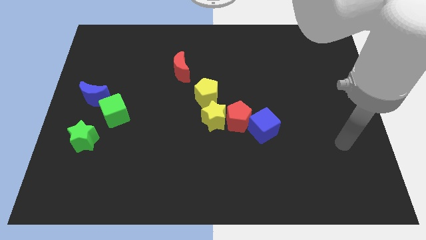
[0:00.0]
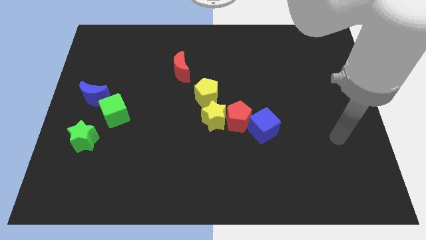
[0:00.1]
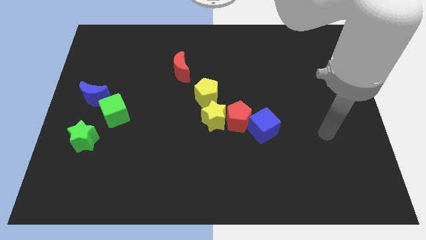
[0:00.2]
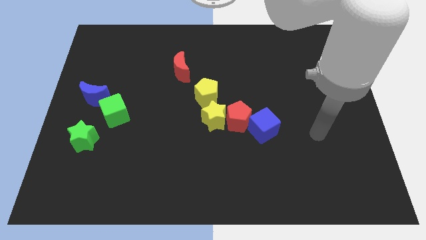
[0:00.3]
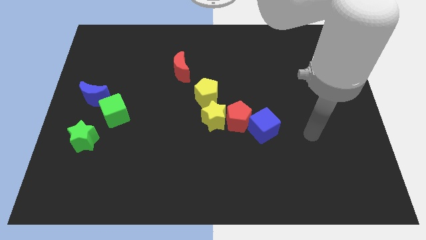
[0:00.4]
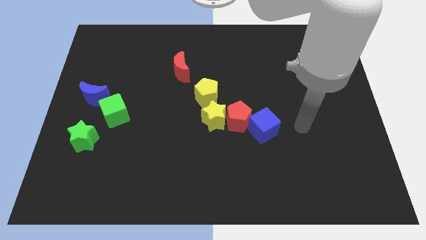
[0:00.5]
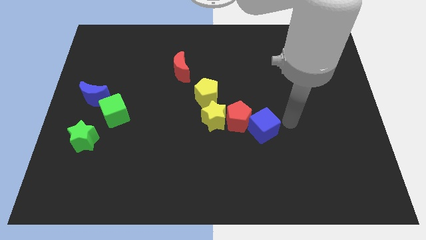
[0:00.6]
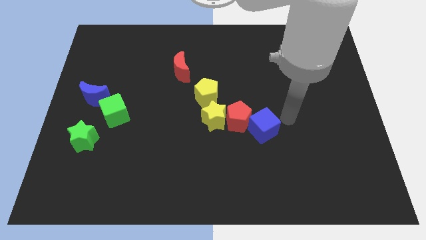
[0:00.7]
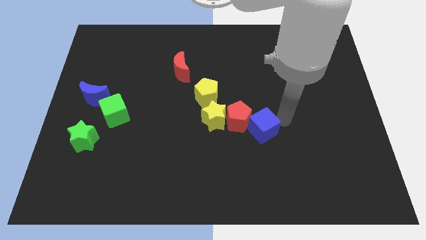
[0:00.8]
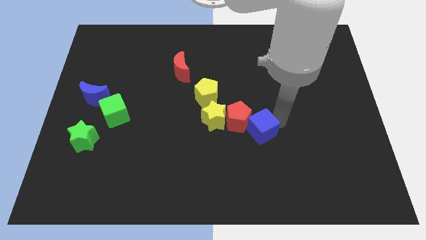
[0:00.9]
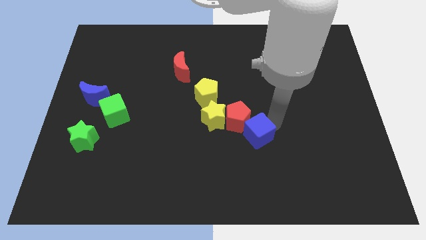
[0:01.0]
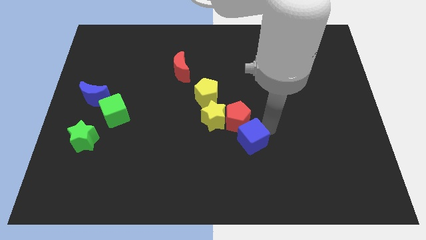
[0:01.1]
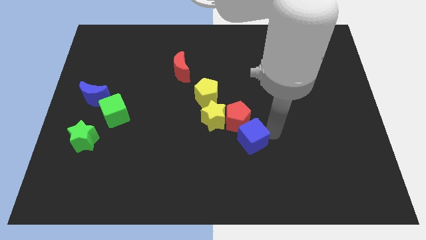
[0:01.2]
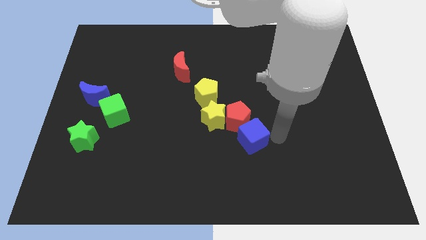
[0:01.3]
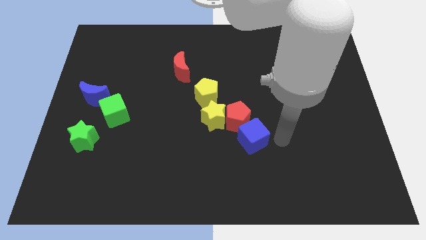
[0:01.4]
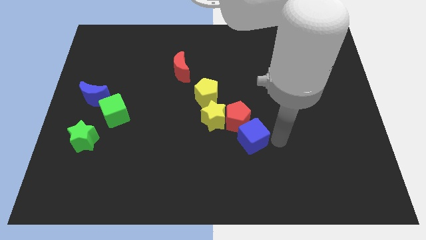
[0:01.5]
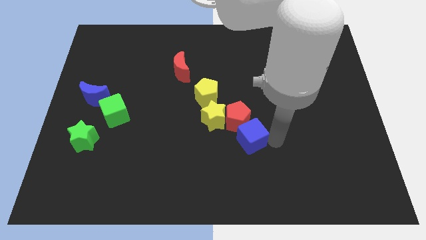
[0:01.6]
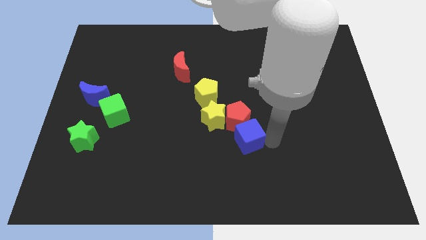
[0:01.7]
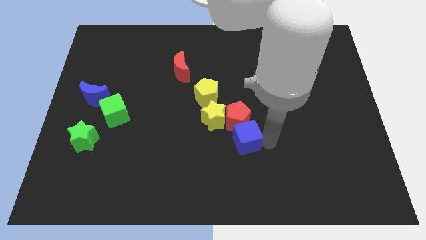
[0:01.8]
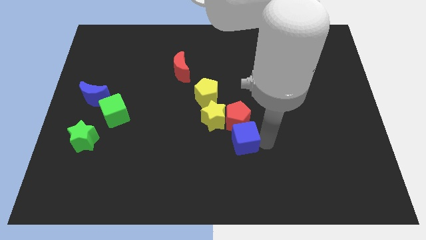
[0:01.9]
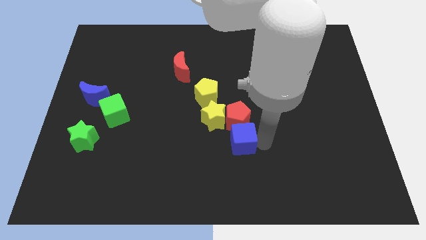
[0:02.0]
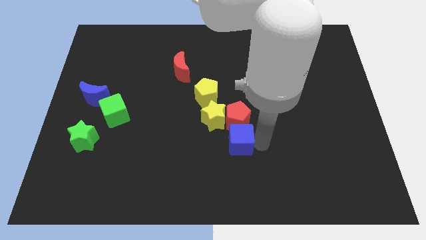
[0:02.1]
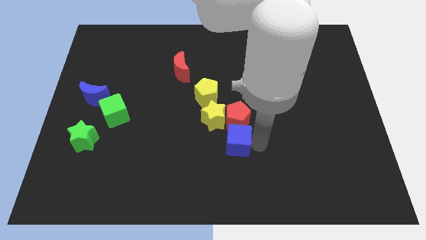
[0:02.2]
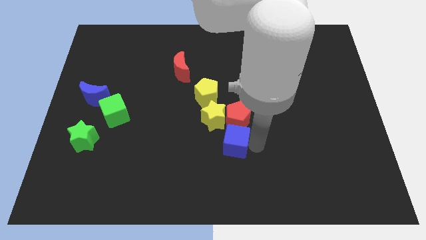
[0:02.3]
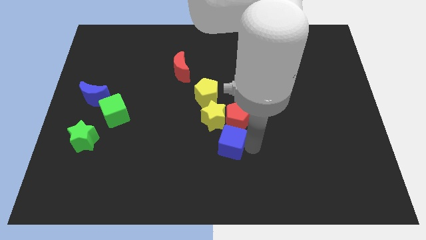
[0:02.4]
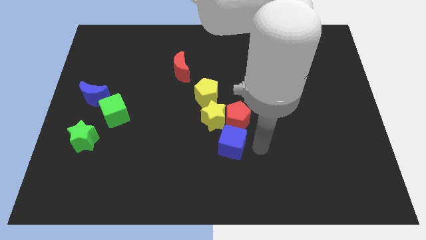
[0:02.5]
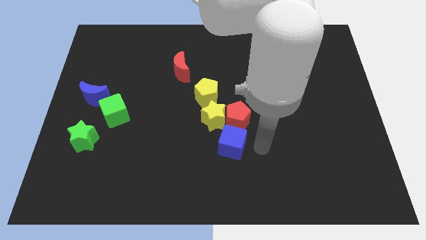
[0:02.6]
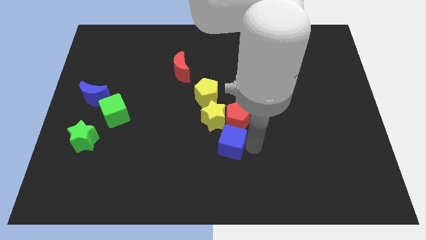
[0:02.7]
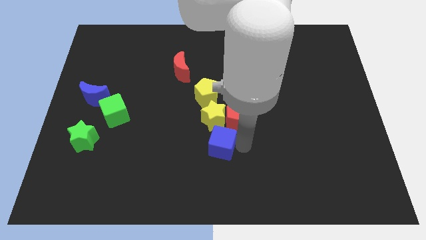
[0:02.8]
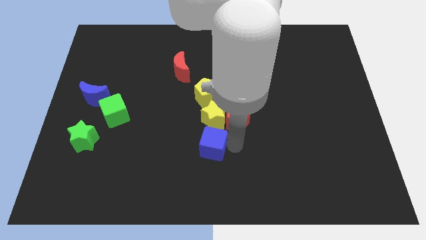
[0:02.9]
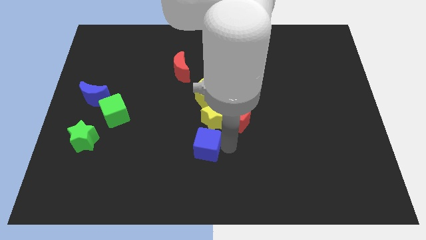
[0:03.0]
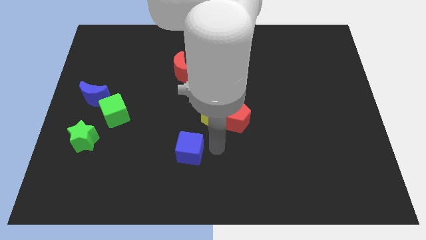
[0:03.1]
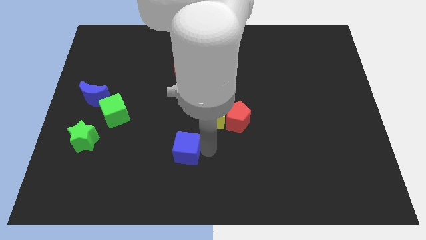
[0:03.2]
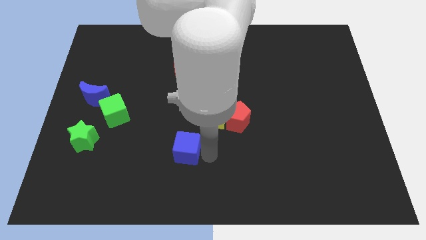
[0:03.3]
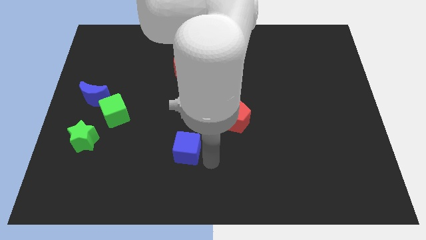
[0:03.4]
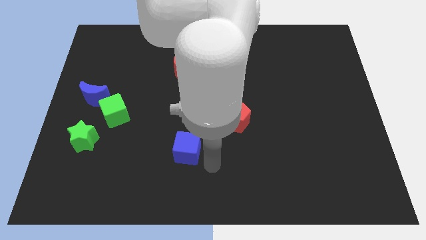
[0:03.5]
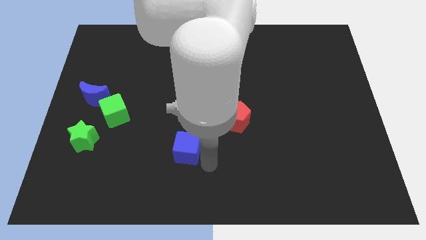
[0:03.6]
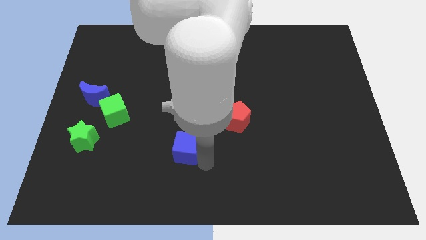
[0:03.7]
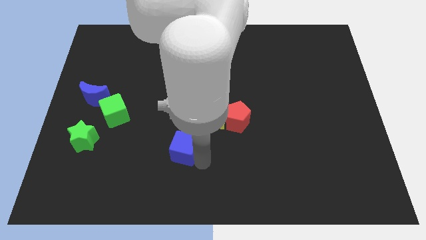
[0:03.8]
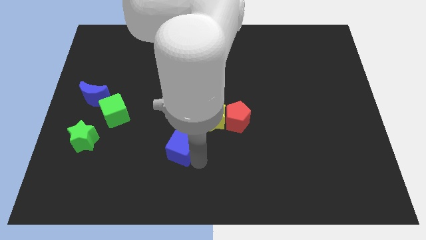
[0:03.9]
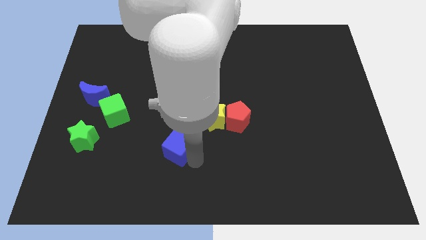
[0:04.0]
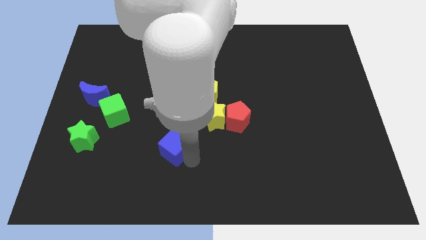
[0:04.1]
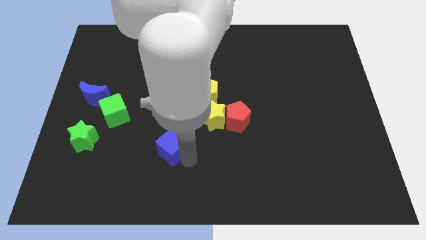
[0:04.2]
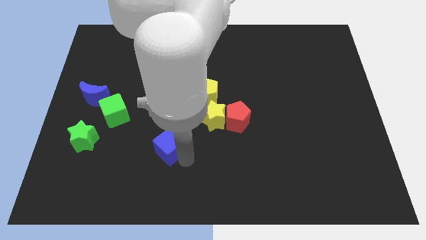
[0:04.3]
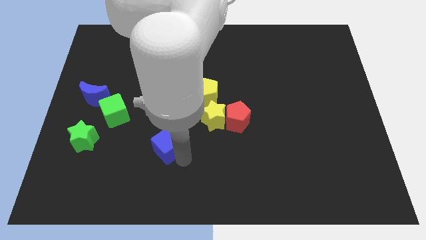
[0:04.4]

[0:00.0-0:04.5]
move the blue cube left

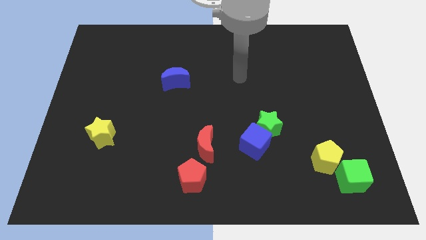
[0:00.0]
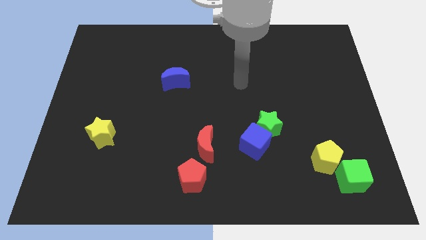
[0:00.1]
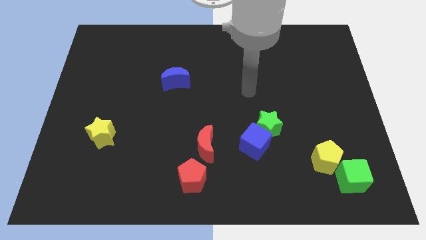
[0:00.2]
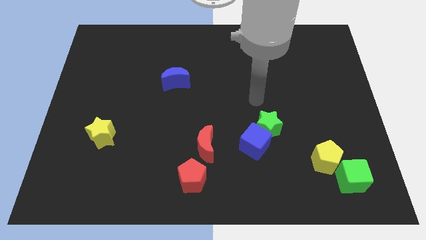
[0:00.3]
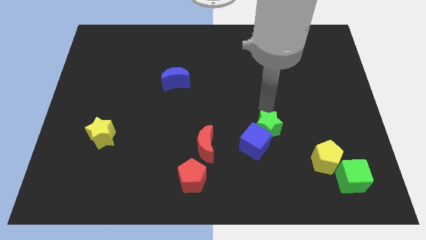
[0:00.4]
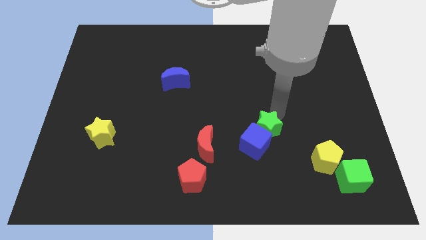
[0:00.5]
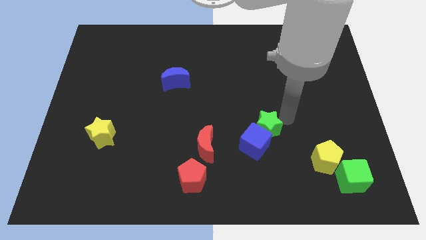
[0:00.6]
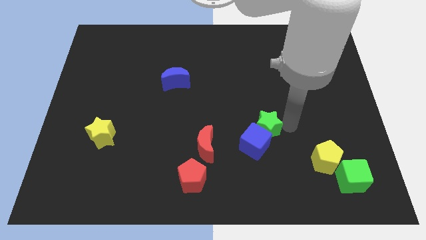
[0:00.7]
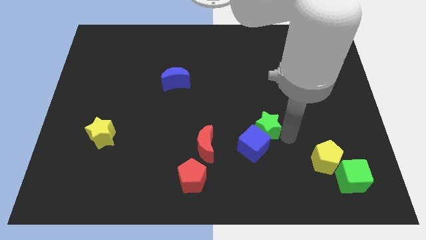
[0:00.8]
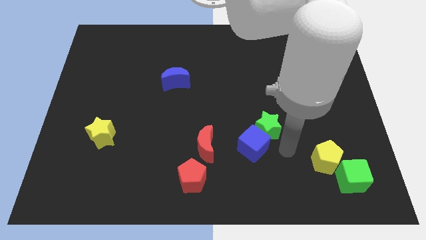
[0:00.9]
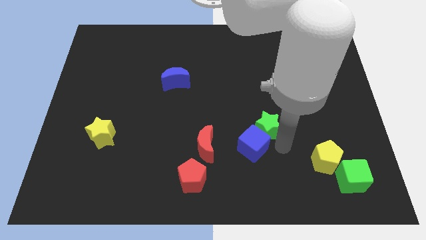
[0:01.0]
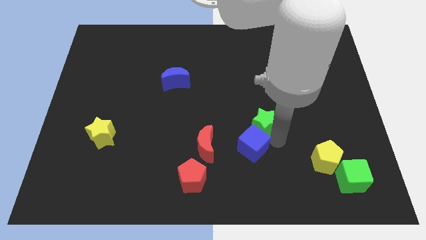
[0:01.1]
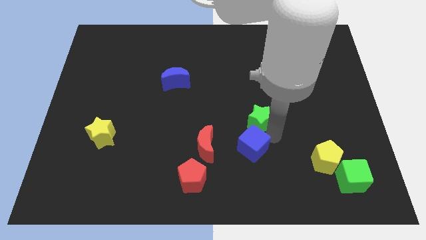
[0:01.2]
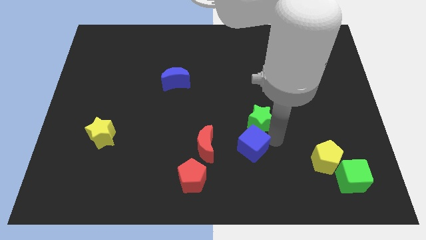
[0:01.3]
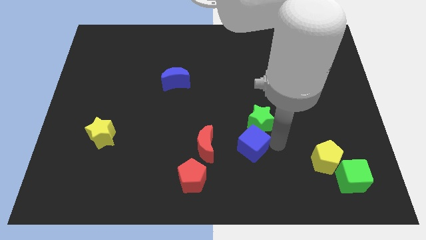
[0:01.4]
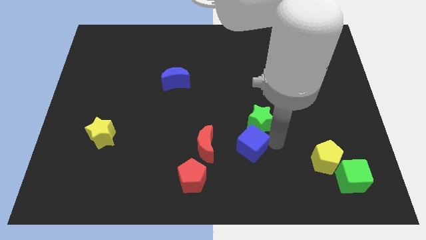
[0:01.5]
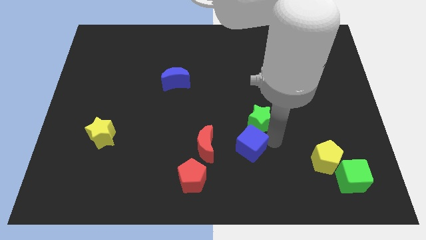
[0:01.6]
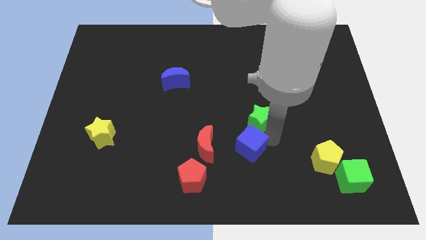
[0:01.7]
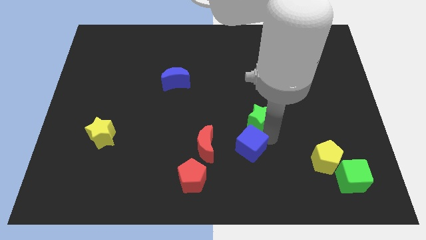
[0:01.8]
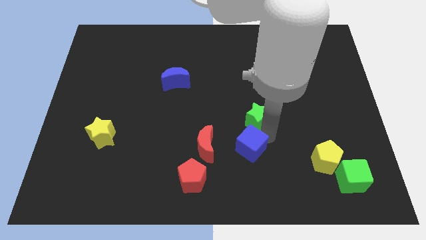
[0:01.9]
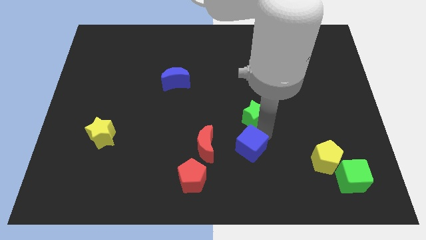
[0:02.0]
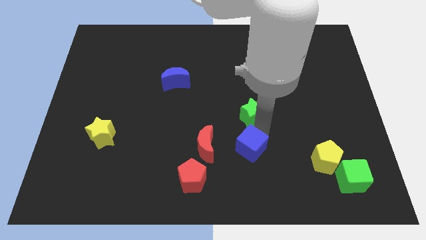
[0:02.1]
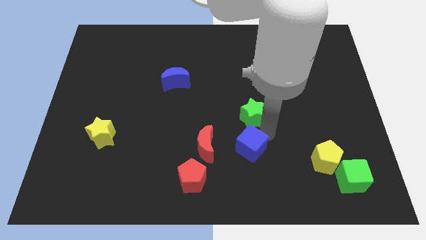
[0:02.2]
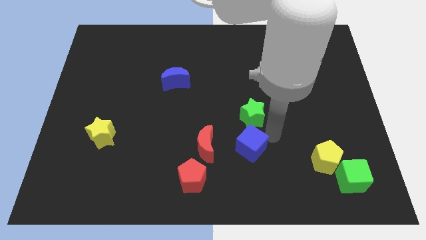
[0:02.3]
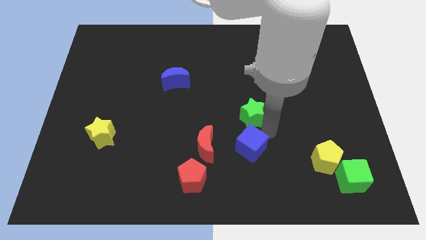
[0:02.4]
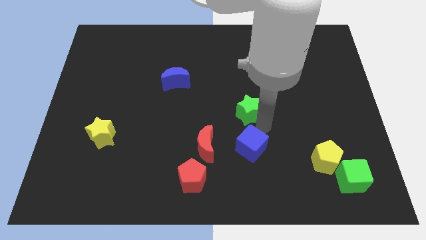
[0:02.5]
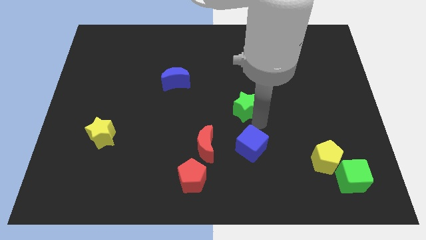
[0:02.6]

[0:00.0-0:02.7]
push the green star a bit up and then left

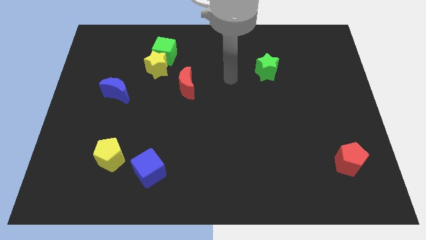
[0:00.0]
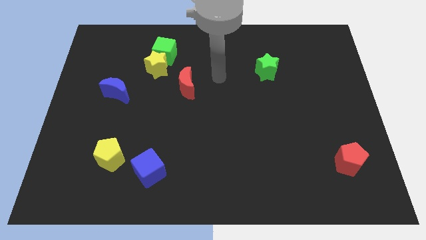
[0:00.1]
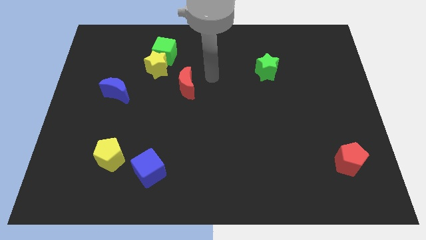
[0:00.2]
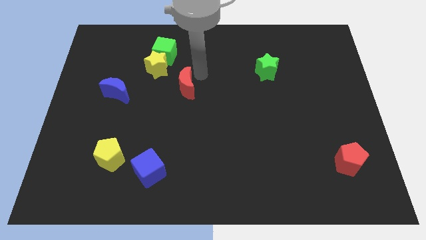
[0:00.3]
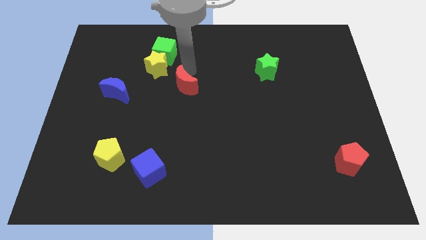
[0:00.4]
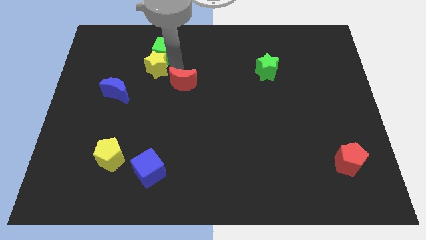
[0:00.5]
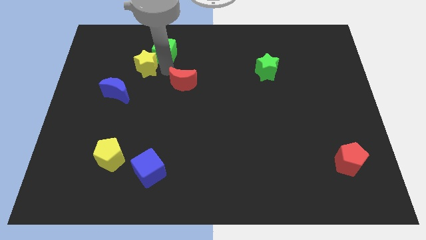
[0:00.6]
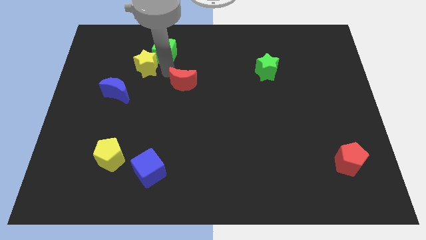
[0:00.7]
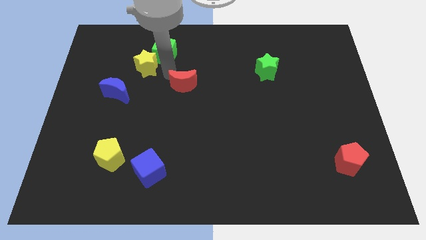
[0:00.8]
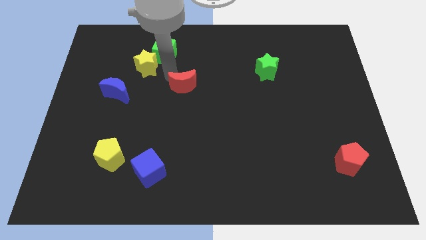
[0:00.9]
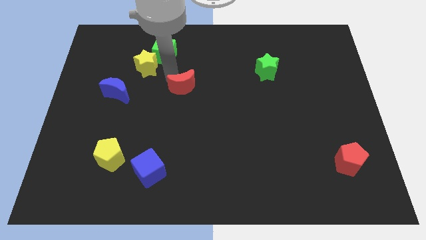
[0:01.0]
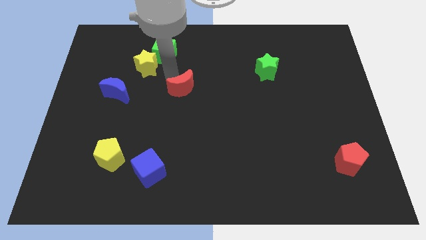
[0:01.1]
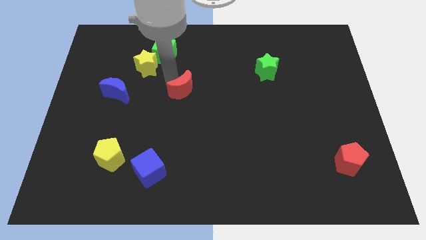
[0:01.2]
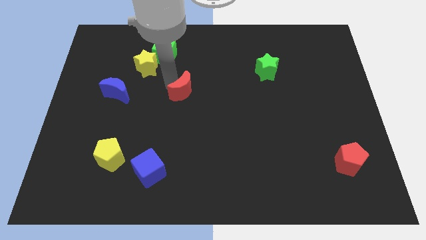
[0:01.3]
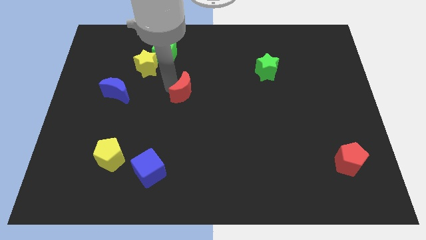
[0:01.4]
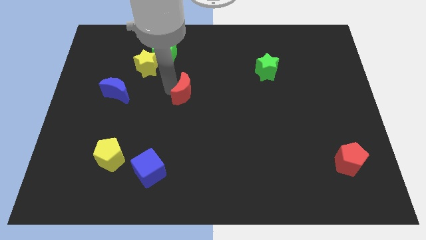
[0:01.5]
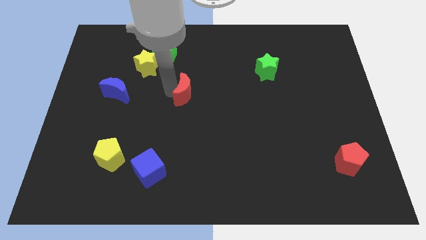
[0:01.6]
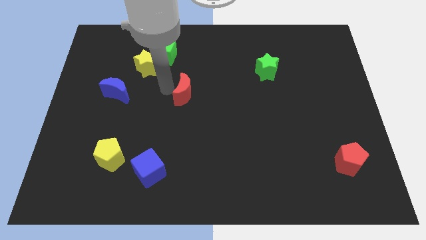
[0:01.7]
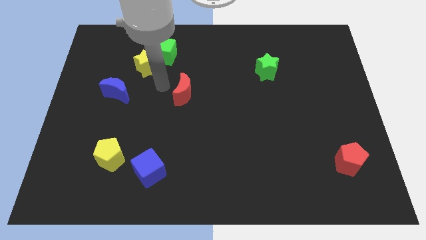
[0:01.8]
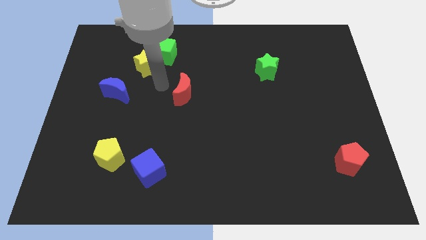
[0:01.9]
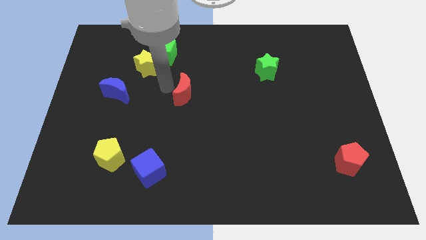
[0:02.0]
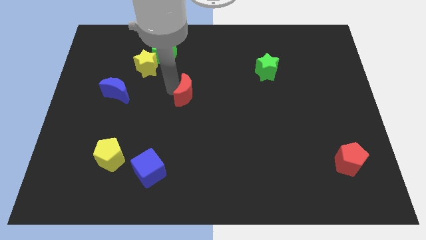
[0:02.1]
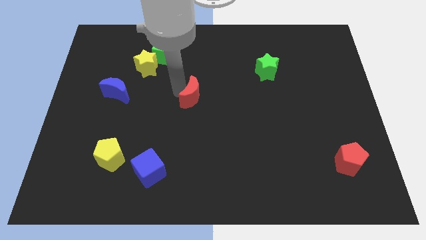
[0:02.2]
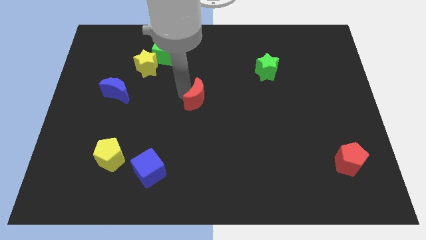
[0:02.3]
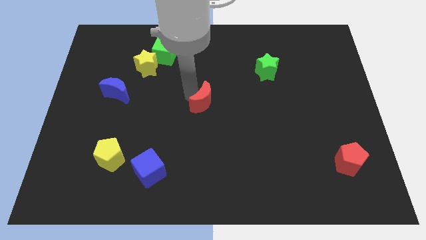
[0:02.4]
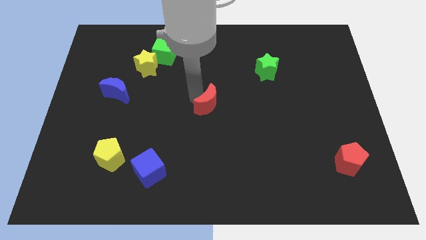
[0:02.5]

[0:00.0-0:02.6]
move the red moon down and to the right somewhat
